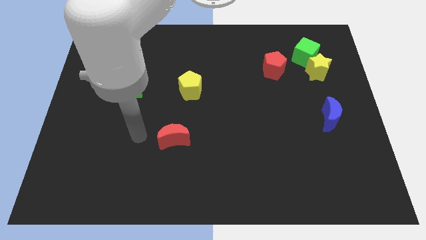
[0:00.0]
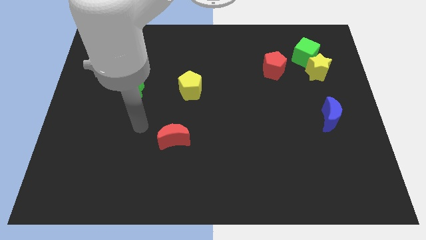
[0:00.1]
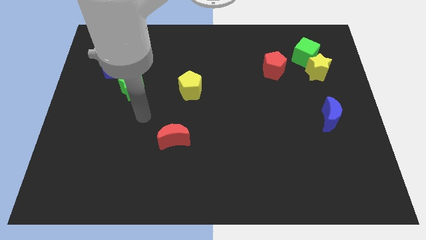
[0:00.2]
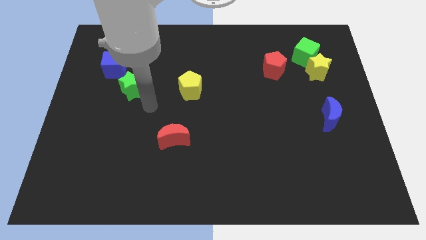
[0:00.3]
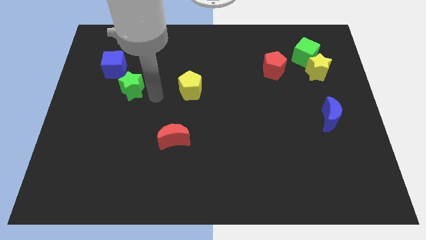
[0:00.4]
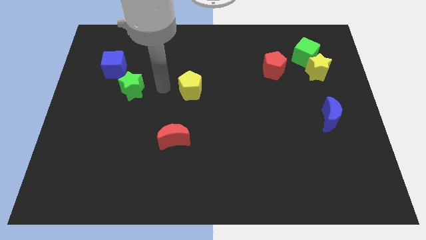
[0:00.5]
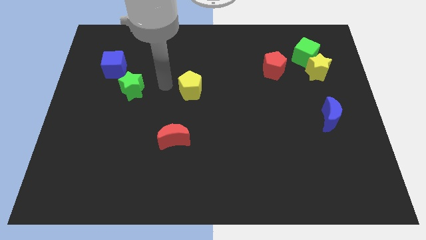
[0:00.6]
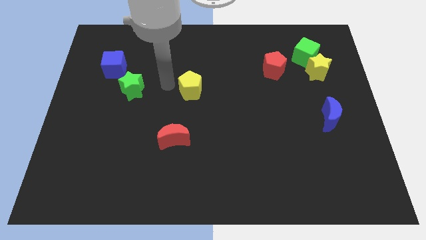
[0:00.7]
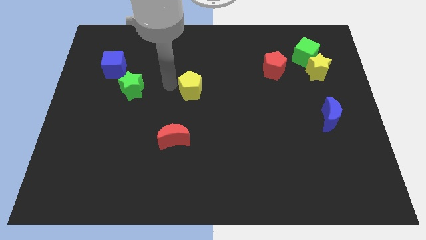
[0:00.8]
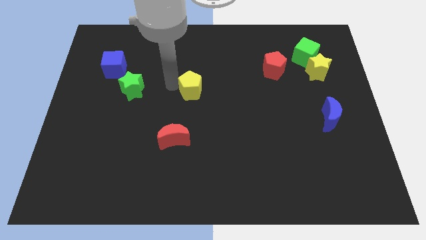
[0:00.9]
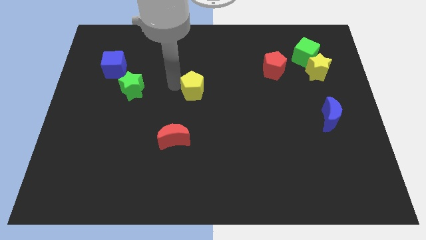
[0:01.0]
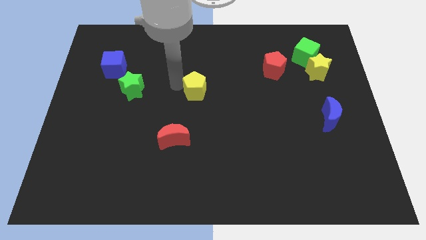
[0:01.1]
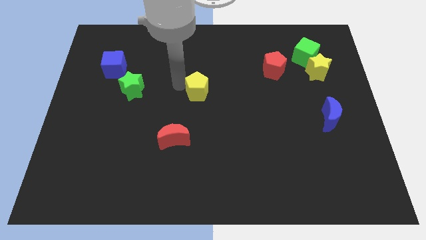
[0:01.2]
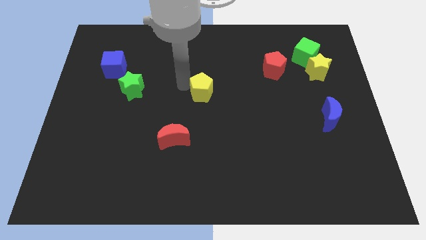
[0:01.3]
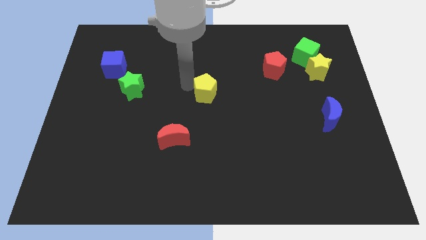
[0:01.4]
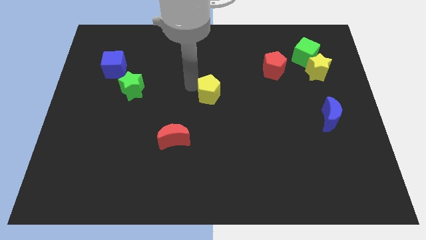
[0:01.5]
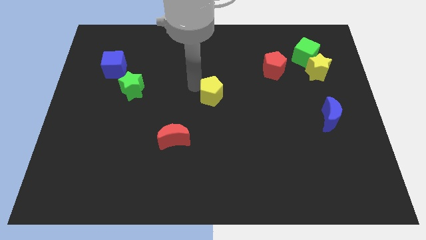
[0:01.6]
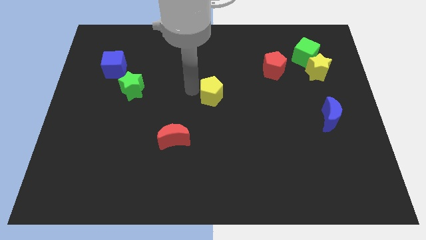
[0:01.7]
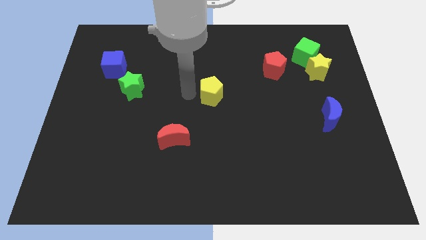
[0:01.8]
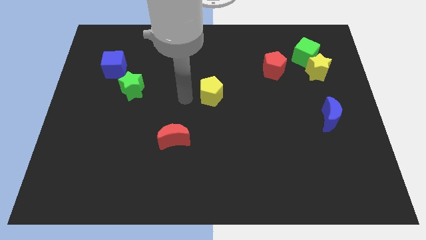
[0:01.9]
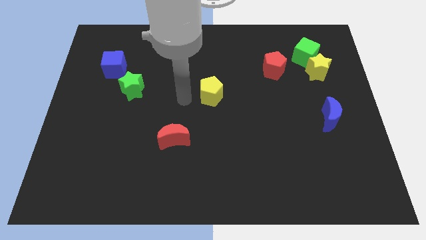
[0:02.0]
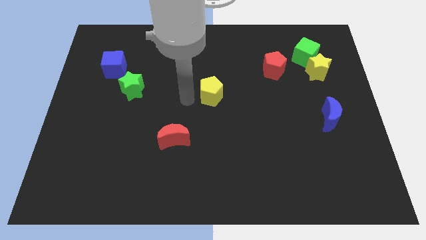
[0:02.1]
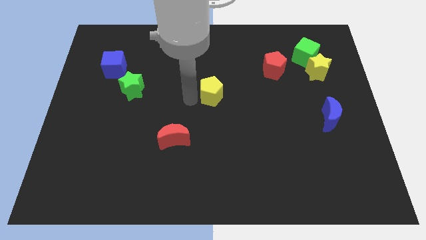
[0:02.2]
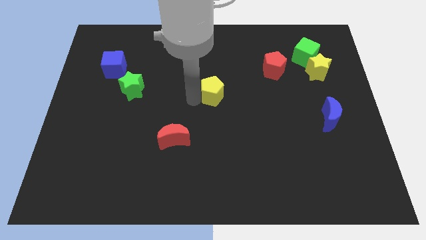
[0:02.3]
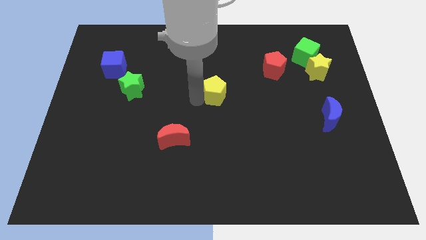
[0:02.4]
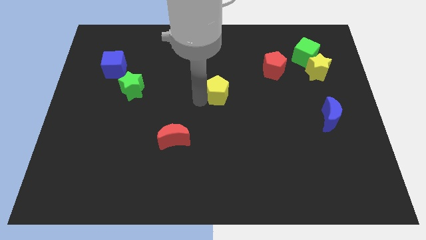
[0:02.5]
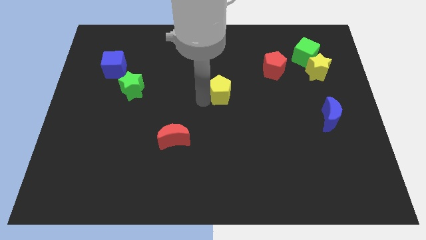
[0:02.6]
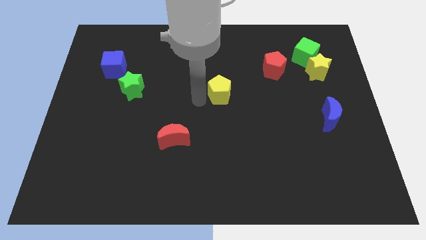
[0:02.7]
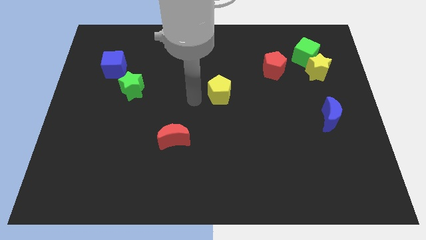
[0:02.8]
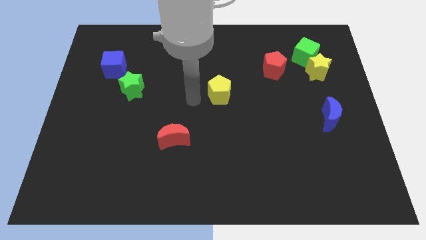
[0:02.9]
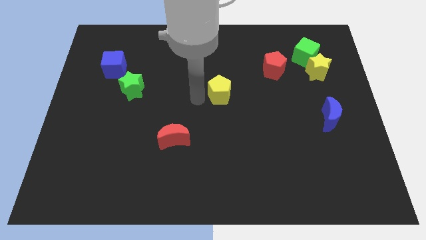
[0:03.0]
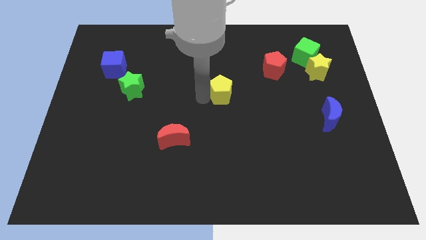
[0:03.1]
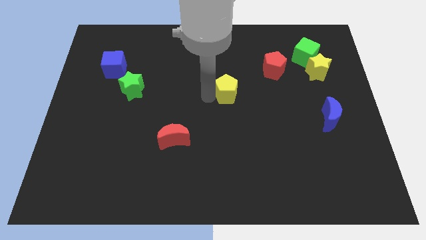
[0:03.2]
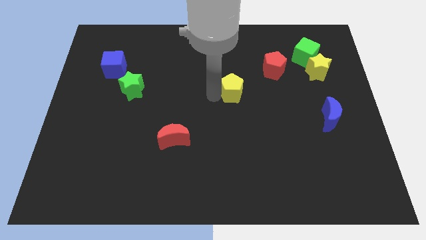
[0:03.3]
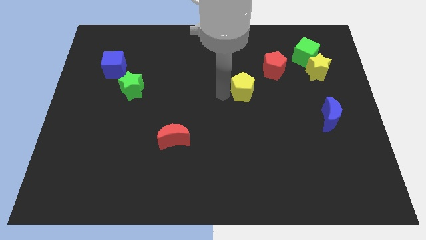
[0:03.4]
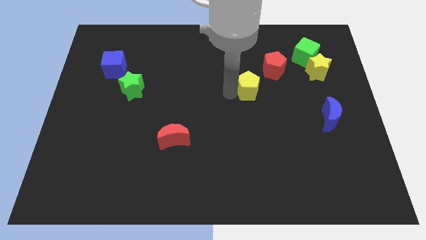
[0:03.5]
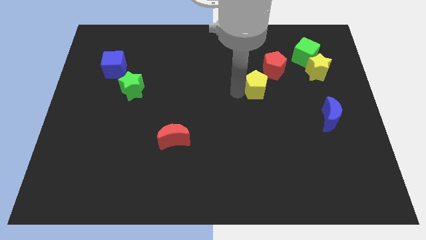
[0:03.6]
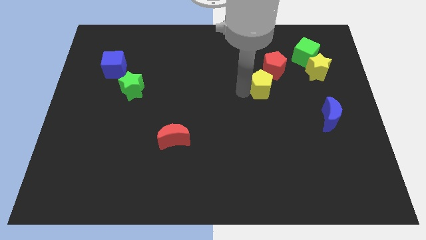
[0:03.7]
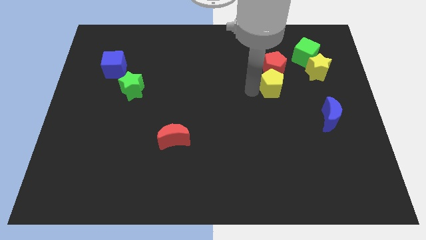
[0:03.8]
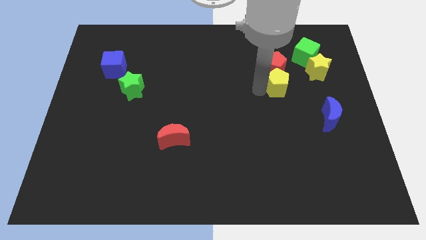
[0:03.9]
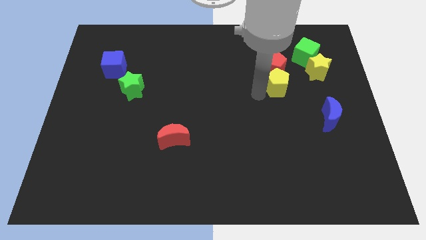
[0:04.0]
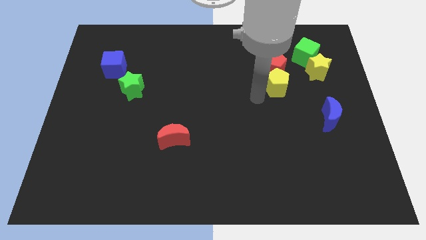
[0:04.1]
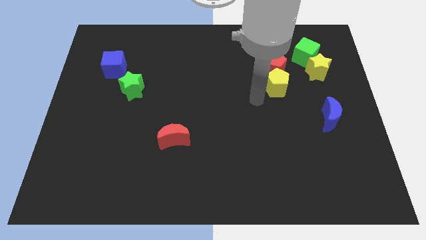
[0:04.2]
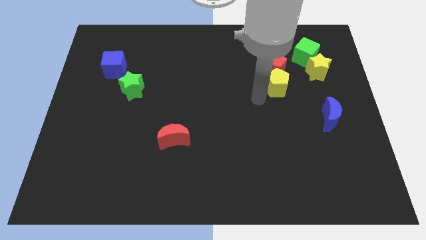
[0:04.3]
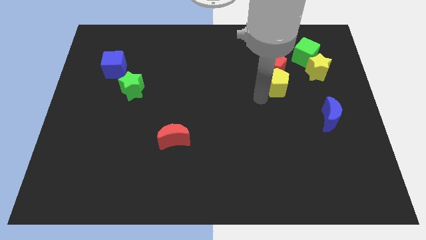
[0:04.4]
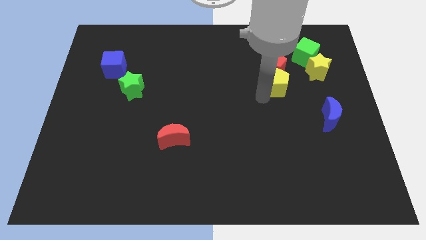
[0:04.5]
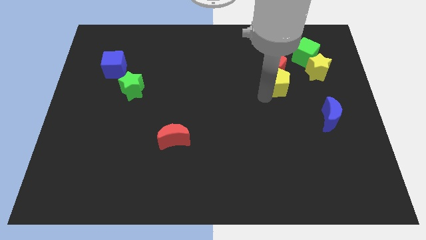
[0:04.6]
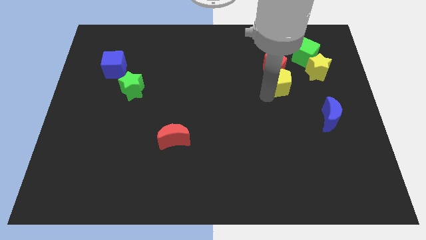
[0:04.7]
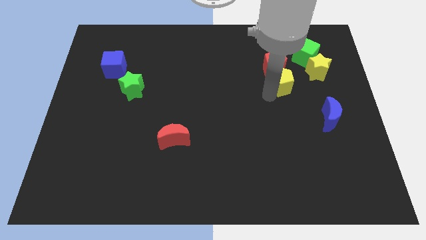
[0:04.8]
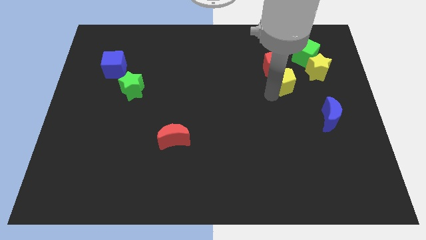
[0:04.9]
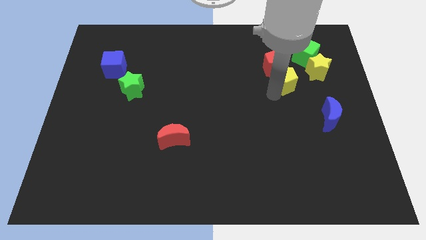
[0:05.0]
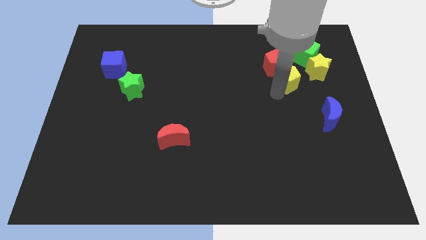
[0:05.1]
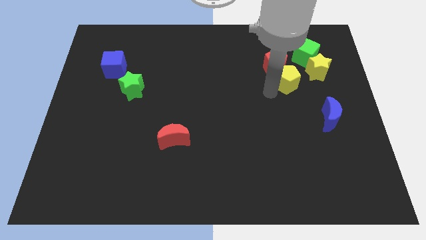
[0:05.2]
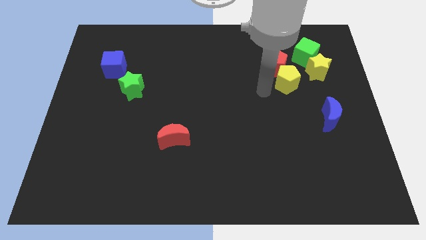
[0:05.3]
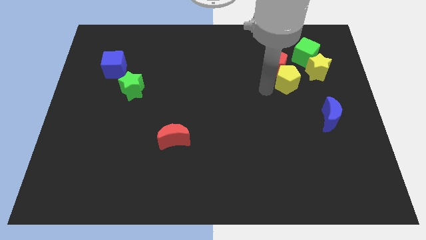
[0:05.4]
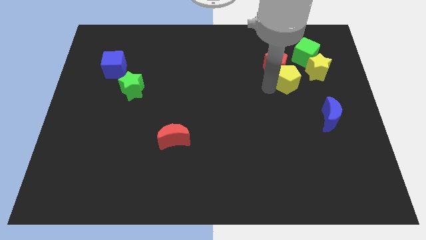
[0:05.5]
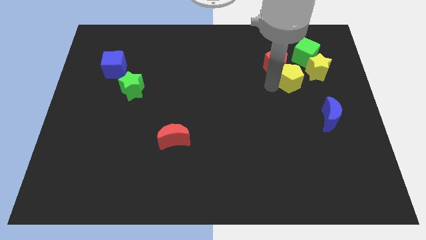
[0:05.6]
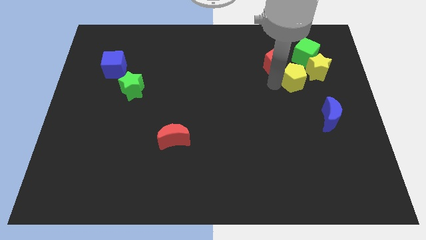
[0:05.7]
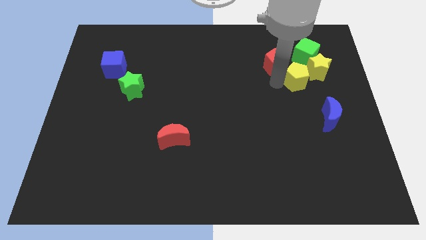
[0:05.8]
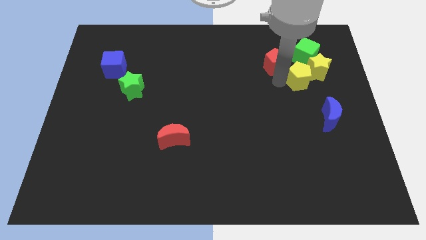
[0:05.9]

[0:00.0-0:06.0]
put the yellow pentagon next to the yellow star

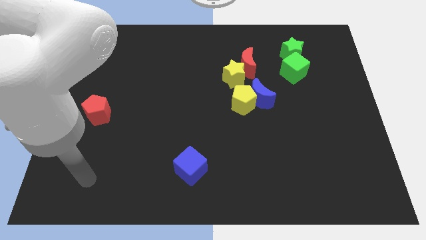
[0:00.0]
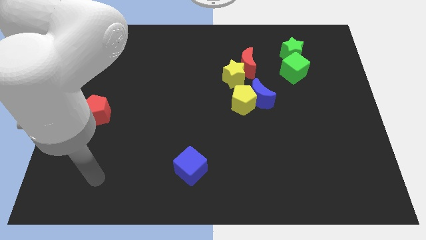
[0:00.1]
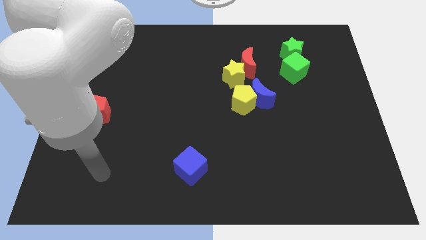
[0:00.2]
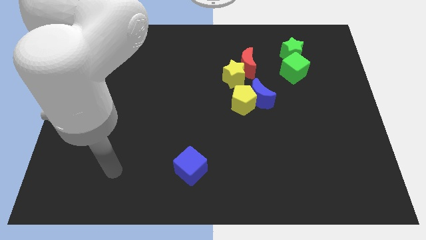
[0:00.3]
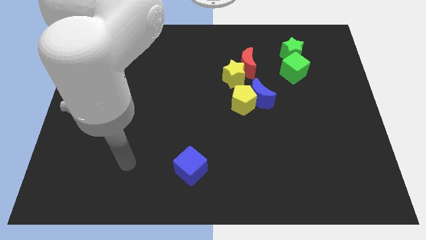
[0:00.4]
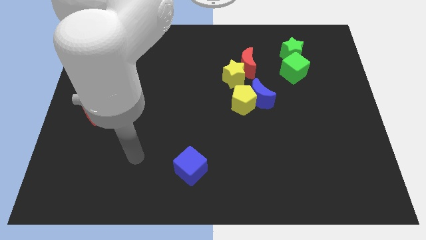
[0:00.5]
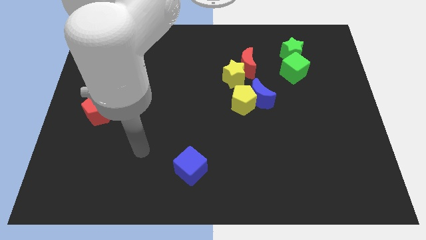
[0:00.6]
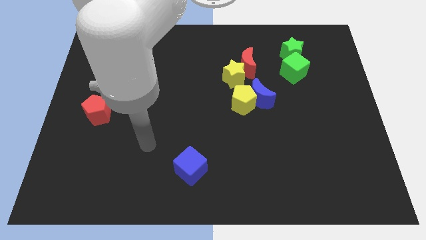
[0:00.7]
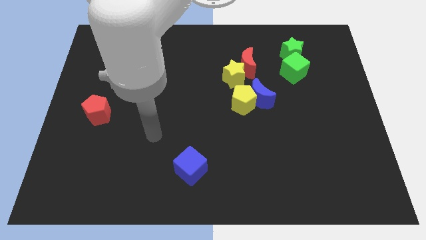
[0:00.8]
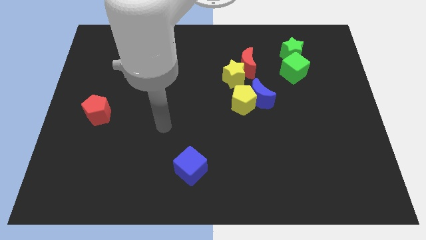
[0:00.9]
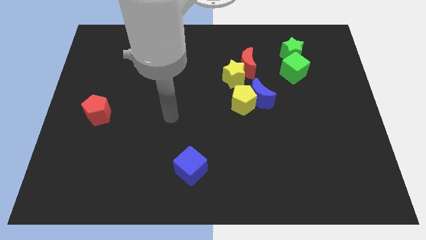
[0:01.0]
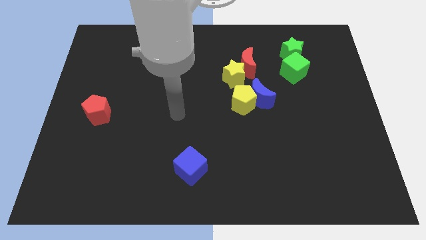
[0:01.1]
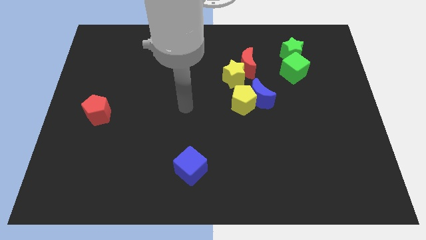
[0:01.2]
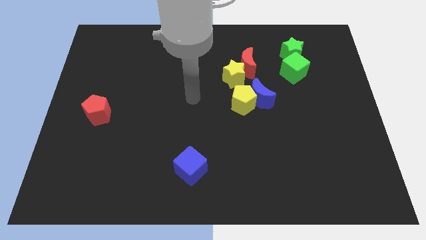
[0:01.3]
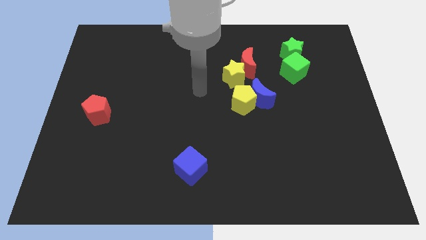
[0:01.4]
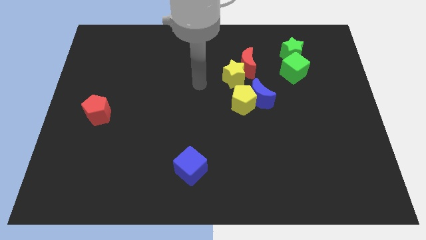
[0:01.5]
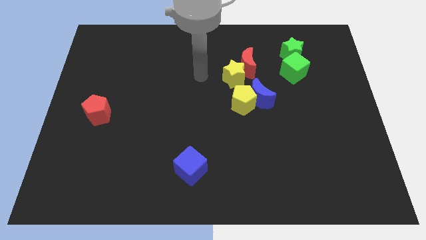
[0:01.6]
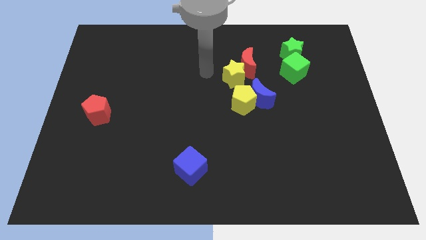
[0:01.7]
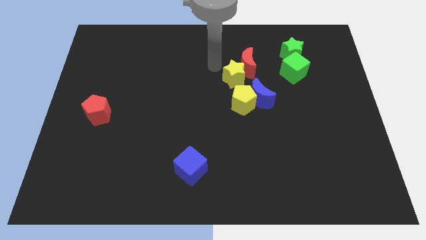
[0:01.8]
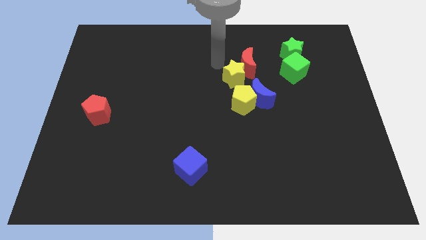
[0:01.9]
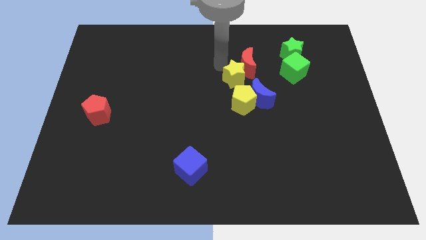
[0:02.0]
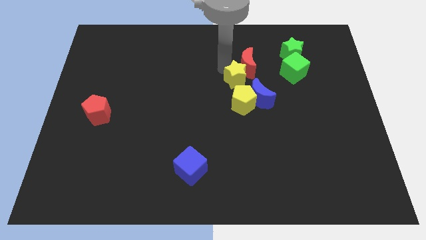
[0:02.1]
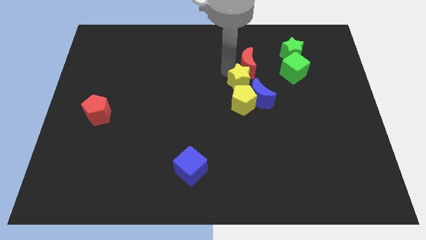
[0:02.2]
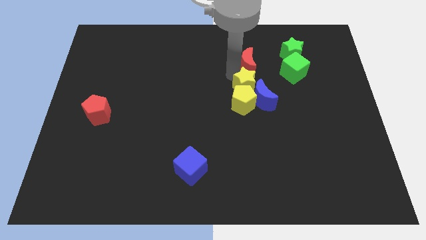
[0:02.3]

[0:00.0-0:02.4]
slide the yellow star to the blue moon
